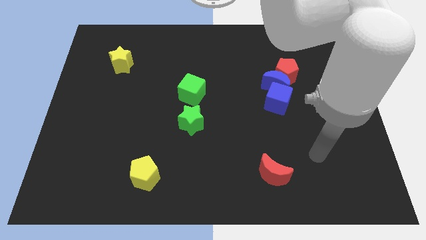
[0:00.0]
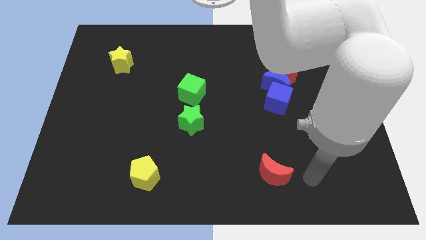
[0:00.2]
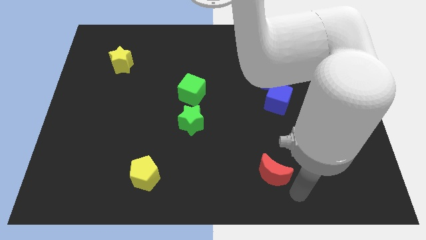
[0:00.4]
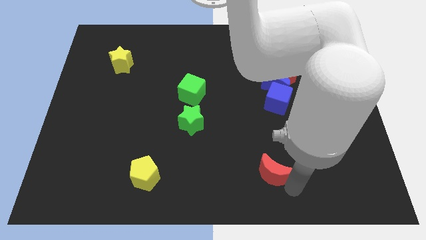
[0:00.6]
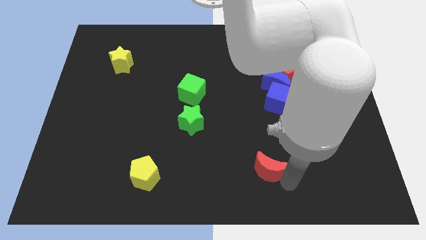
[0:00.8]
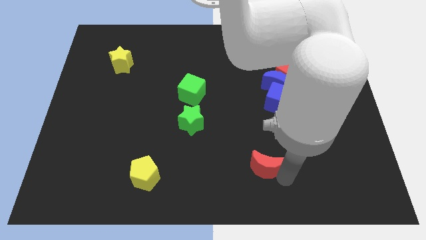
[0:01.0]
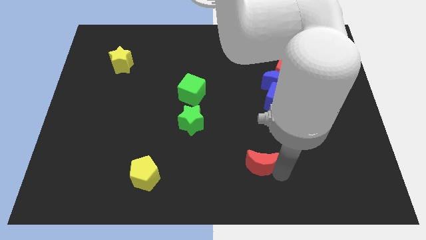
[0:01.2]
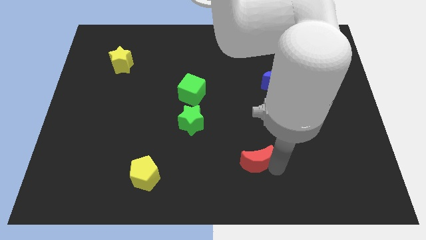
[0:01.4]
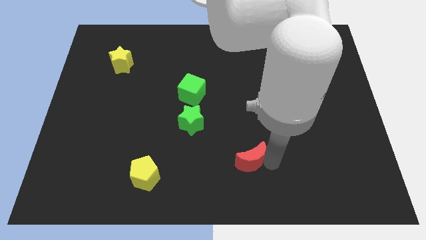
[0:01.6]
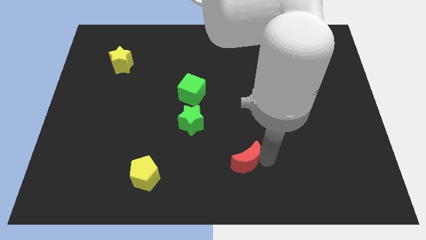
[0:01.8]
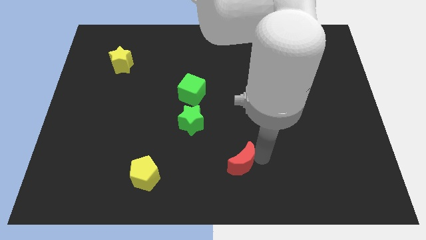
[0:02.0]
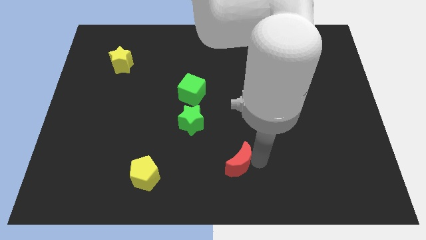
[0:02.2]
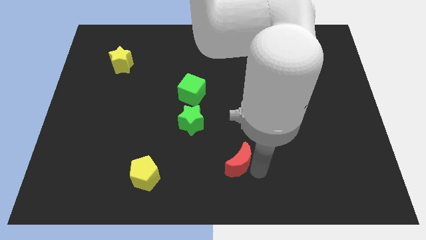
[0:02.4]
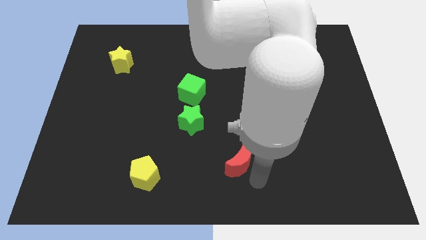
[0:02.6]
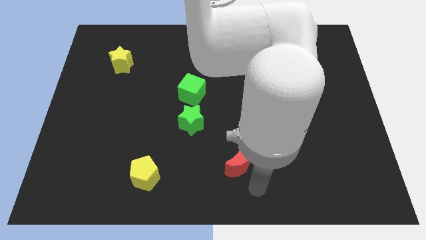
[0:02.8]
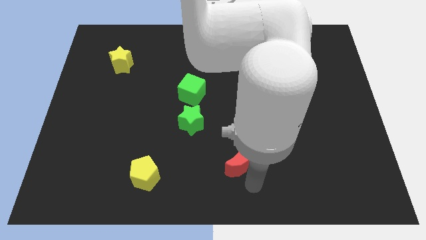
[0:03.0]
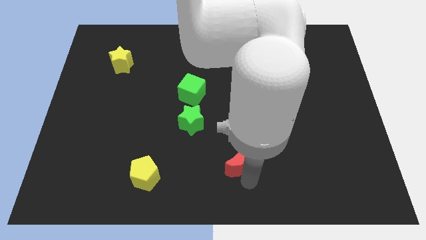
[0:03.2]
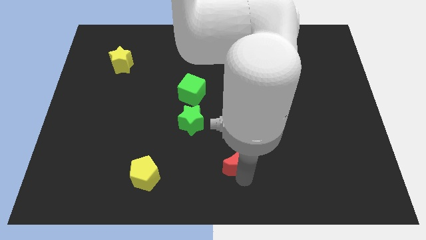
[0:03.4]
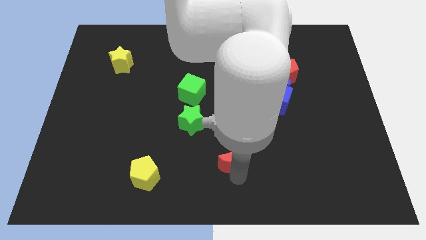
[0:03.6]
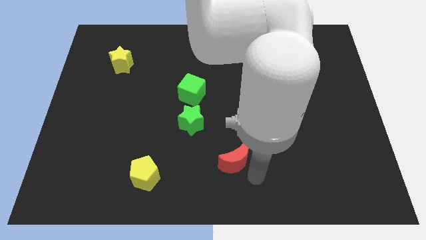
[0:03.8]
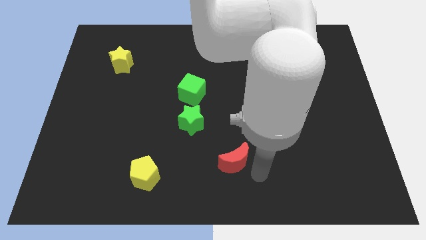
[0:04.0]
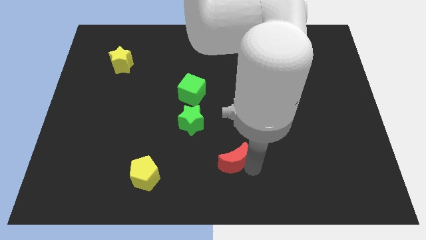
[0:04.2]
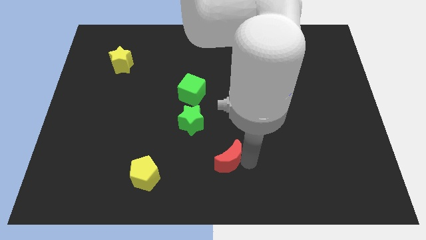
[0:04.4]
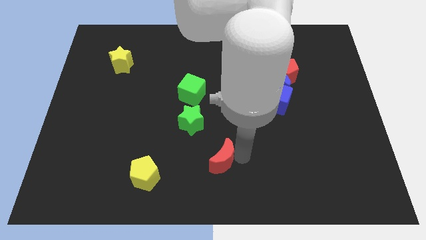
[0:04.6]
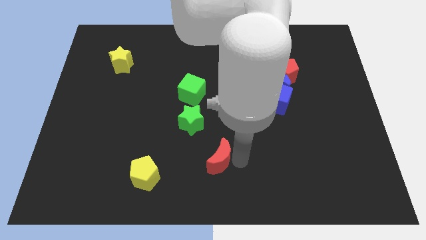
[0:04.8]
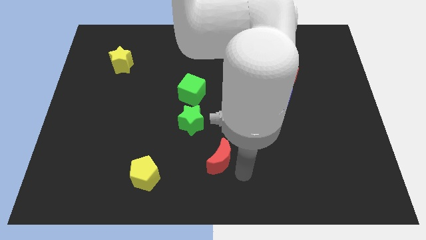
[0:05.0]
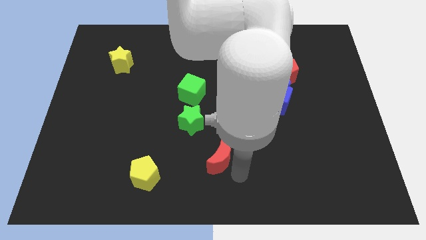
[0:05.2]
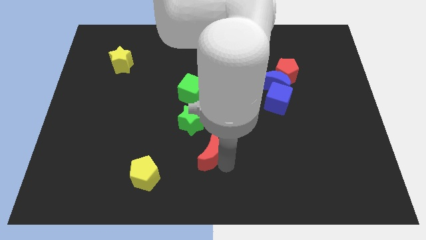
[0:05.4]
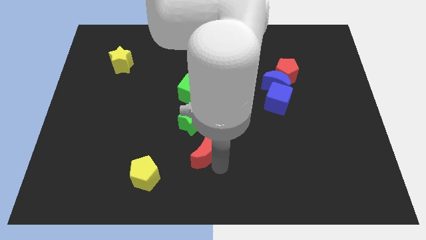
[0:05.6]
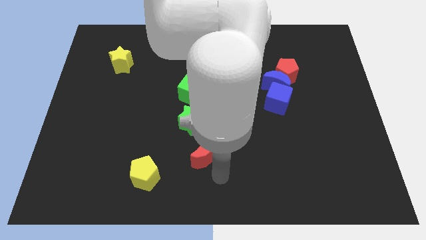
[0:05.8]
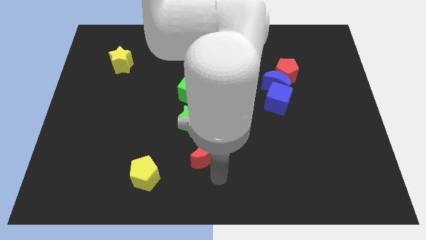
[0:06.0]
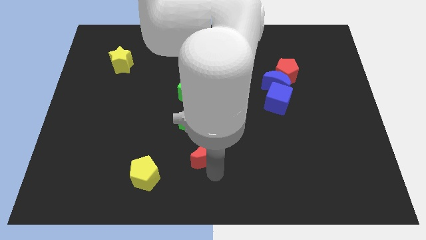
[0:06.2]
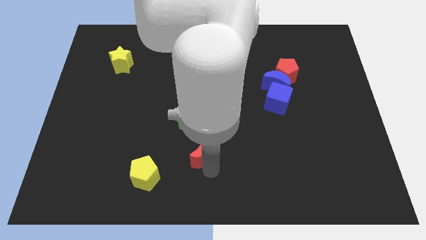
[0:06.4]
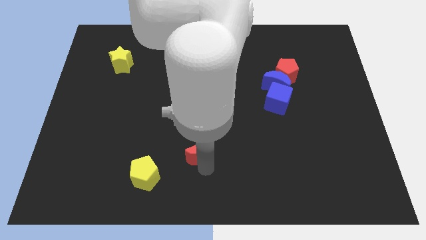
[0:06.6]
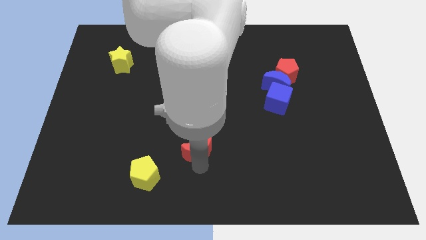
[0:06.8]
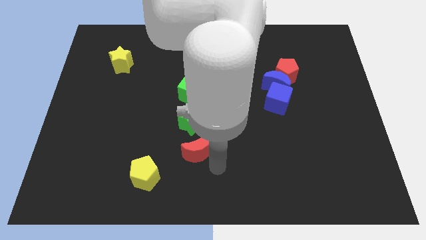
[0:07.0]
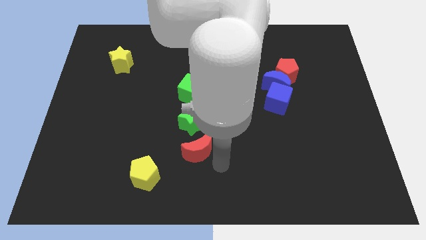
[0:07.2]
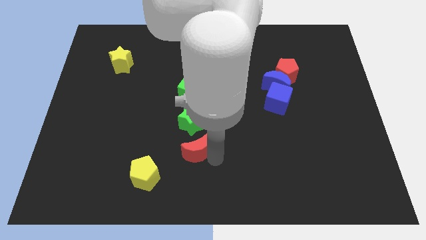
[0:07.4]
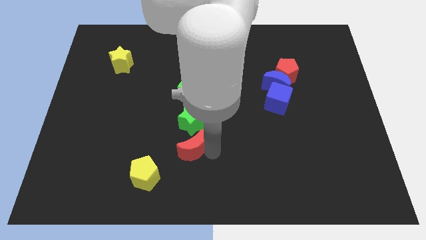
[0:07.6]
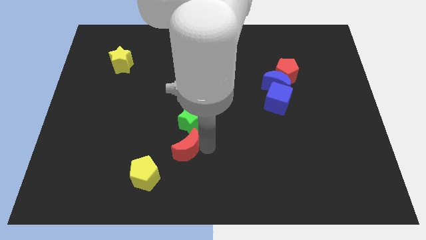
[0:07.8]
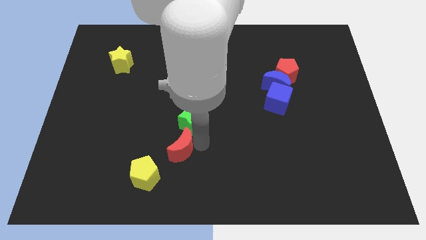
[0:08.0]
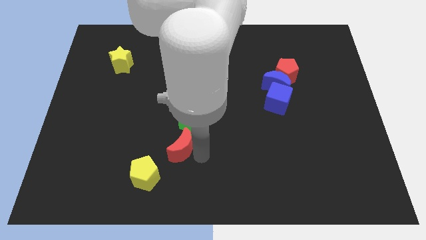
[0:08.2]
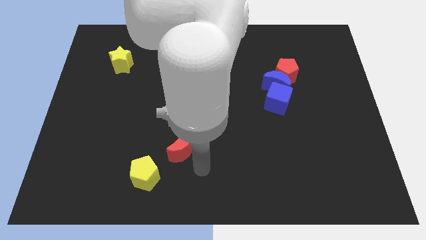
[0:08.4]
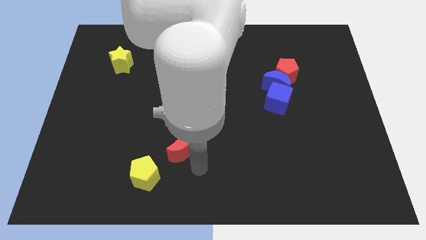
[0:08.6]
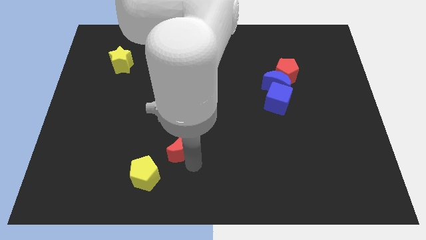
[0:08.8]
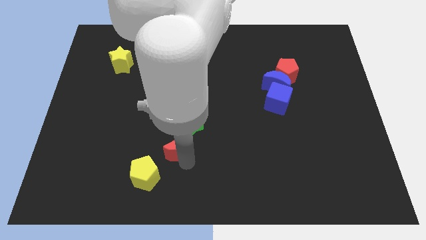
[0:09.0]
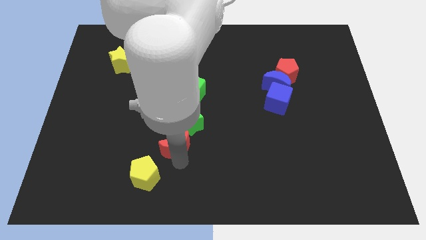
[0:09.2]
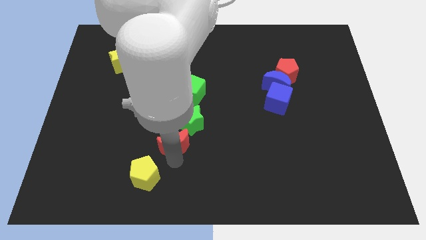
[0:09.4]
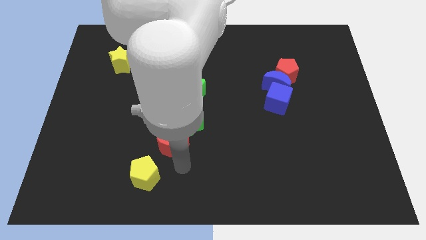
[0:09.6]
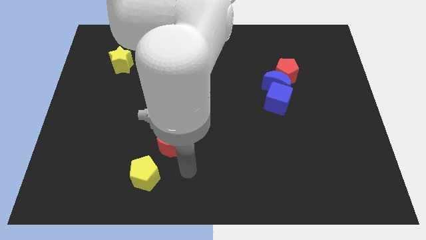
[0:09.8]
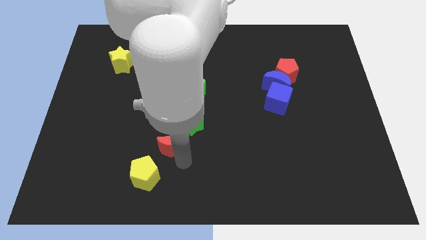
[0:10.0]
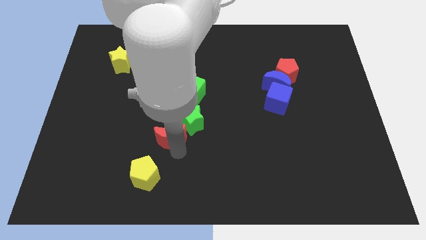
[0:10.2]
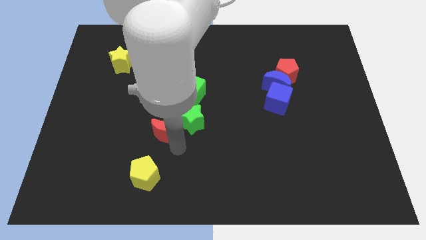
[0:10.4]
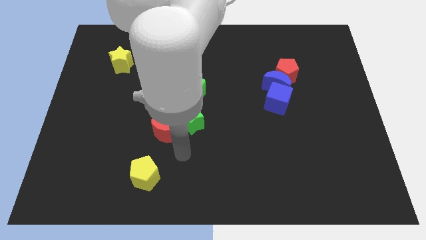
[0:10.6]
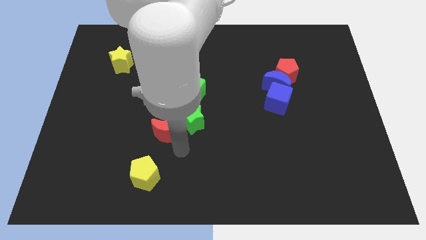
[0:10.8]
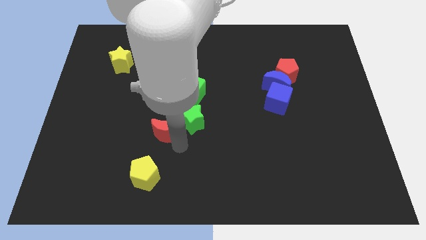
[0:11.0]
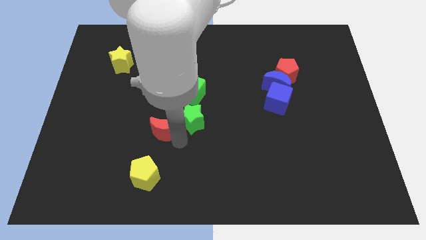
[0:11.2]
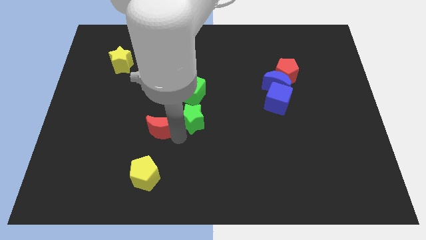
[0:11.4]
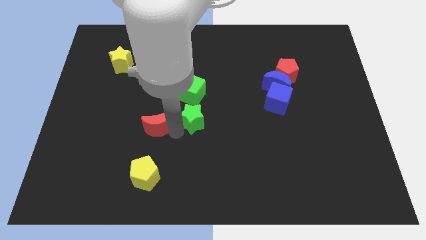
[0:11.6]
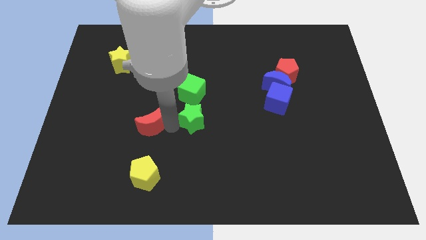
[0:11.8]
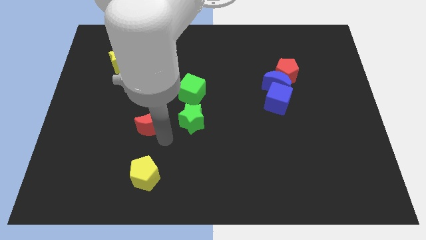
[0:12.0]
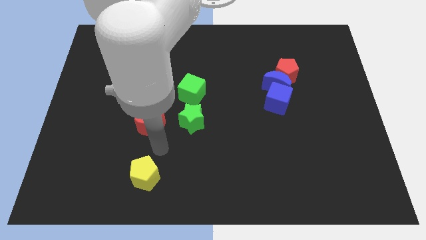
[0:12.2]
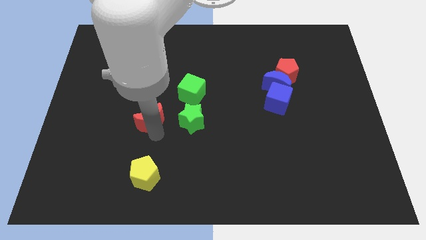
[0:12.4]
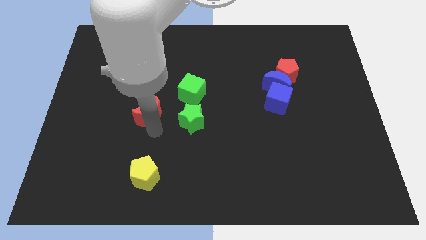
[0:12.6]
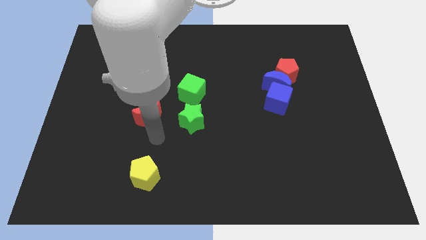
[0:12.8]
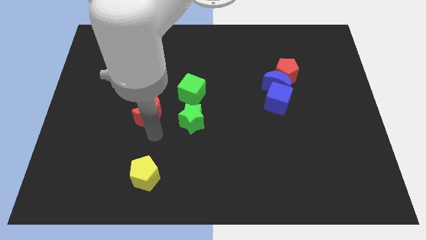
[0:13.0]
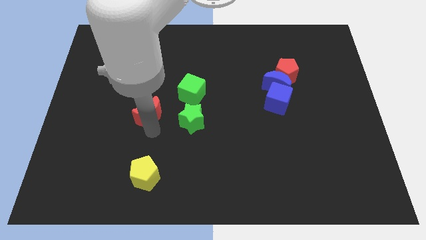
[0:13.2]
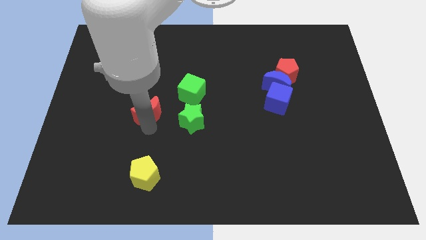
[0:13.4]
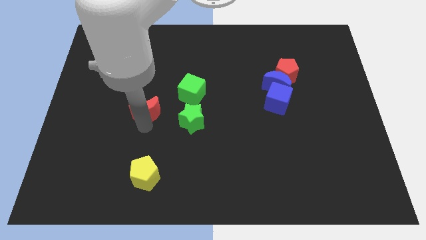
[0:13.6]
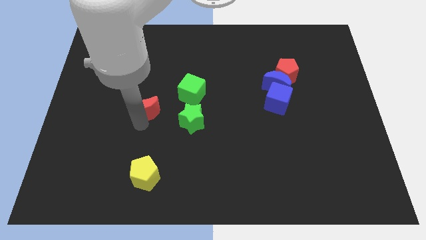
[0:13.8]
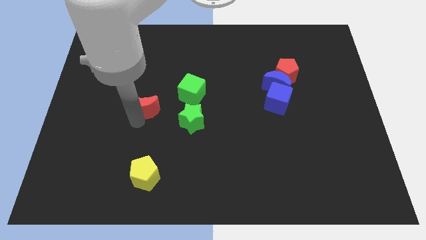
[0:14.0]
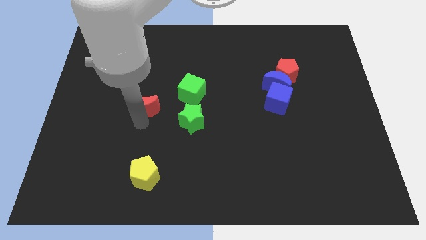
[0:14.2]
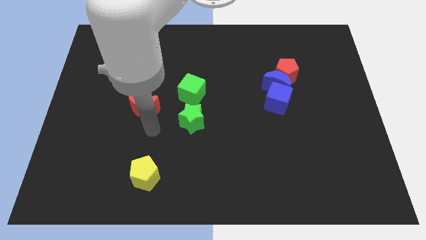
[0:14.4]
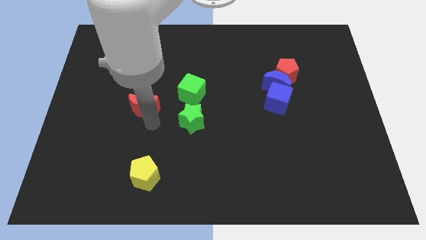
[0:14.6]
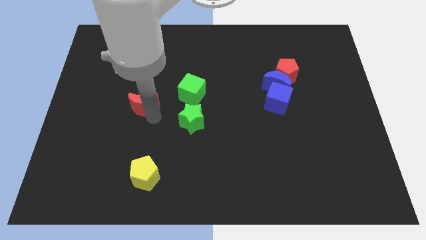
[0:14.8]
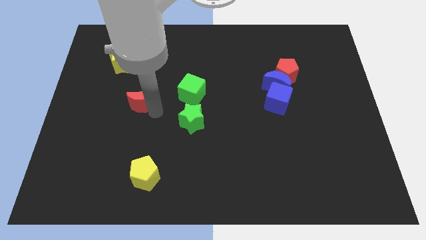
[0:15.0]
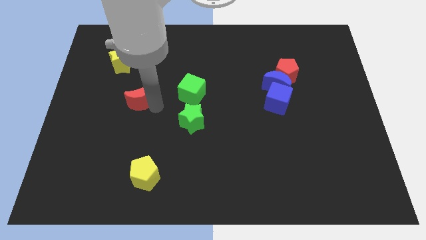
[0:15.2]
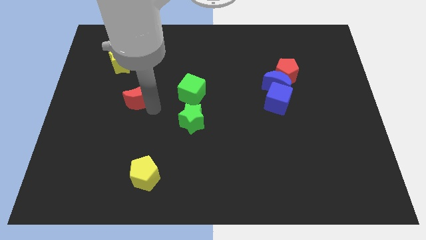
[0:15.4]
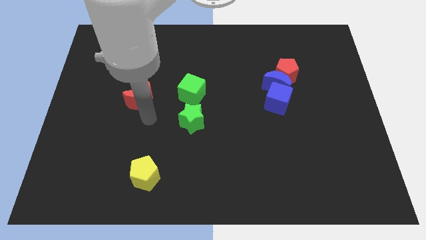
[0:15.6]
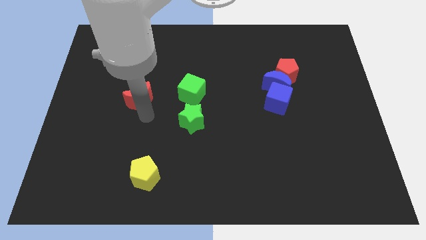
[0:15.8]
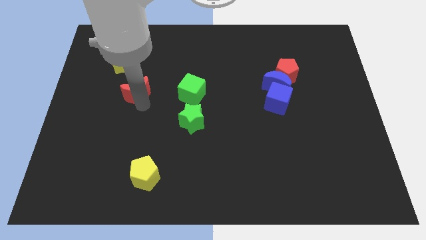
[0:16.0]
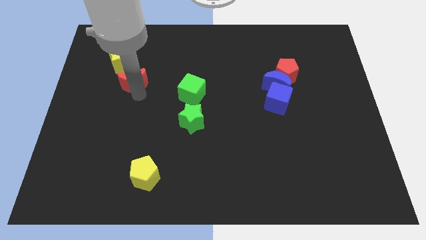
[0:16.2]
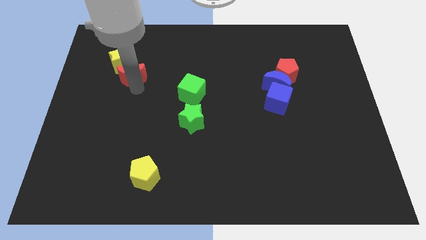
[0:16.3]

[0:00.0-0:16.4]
put the red moon to the yellow star
